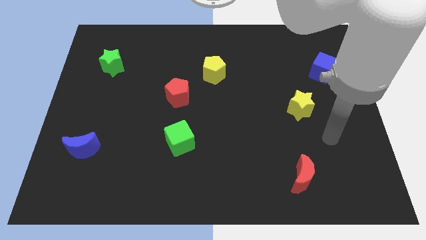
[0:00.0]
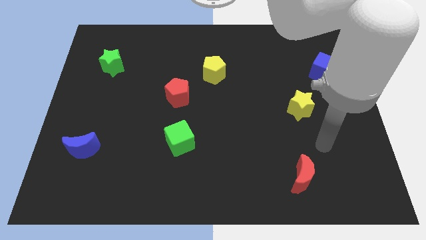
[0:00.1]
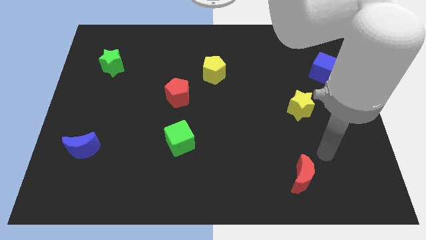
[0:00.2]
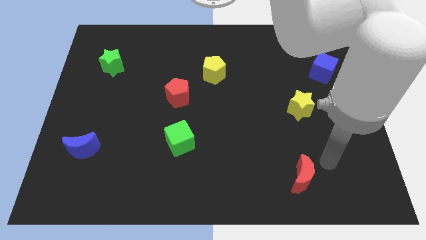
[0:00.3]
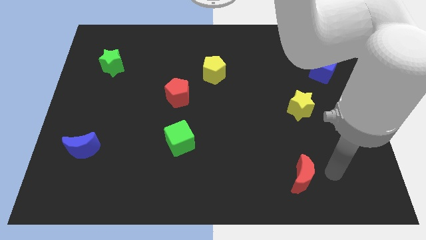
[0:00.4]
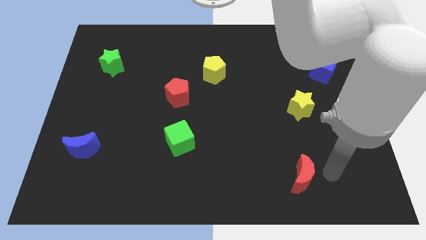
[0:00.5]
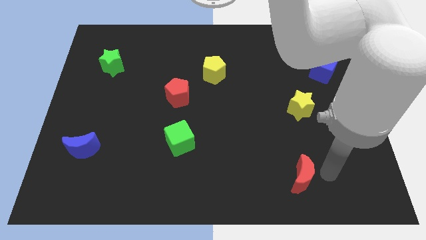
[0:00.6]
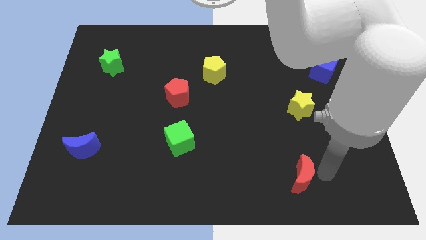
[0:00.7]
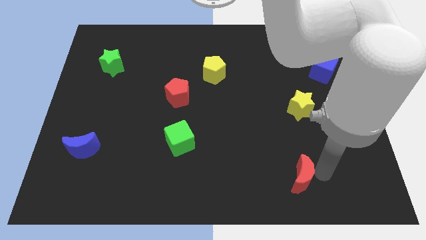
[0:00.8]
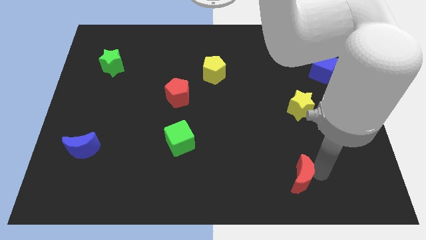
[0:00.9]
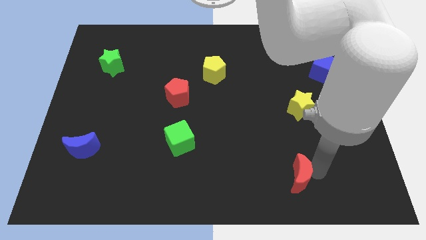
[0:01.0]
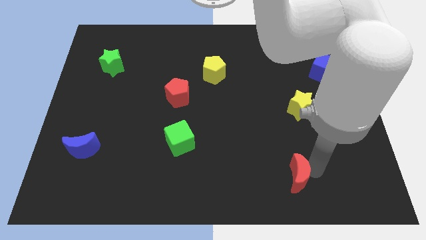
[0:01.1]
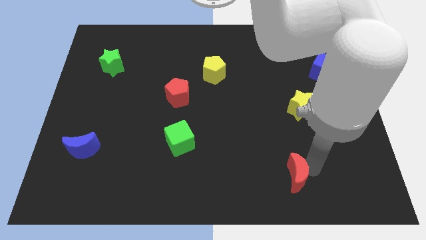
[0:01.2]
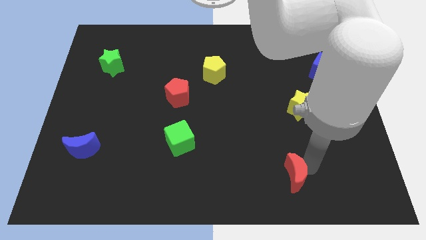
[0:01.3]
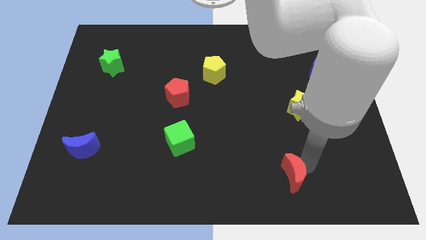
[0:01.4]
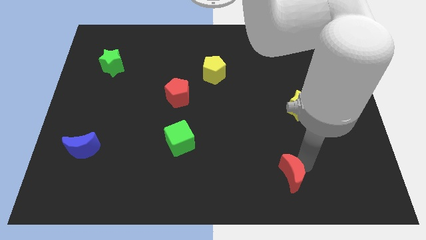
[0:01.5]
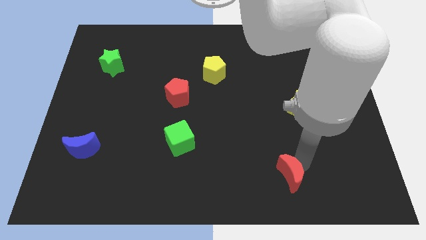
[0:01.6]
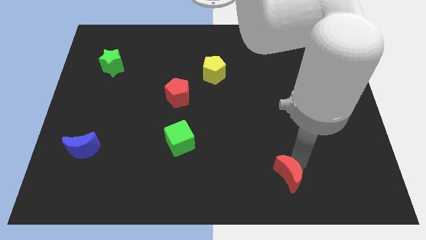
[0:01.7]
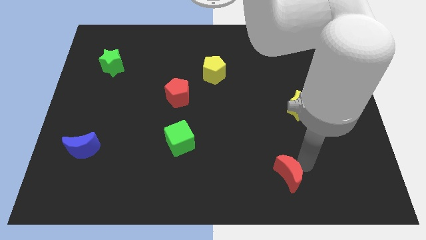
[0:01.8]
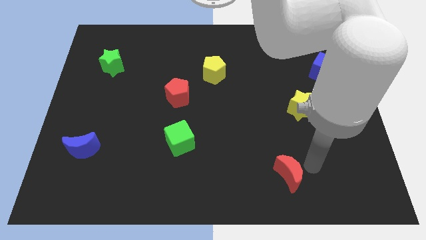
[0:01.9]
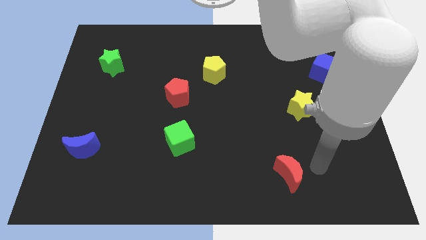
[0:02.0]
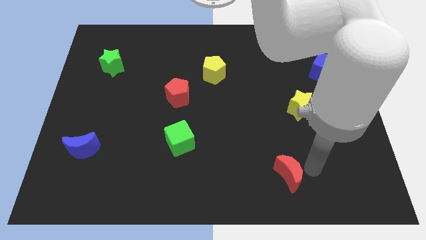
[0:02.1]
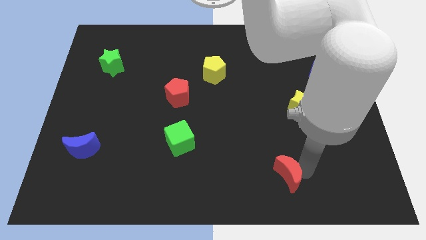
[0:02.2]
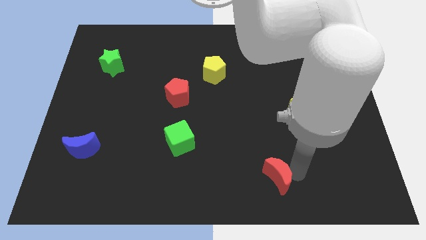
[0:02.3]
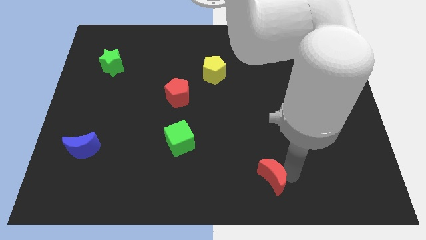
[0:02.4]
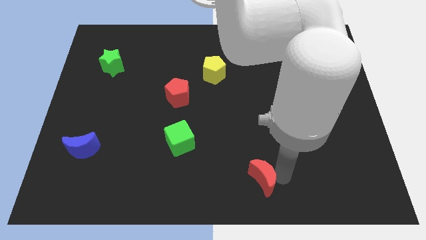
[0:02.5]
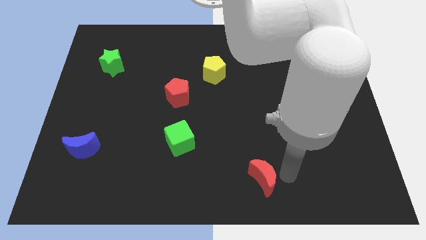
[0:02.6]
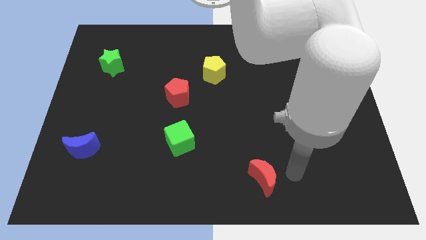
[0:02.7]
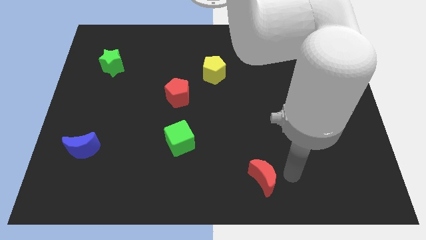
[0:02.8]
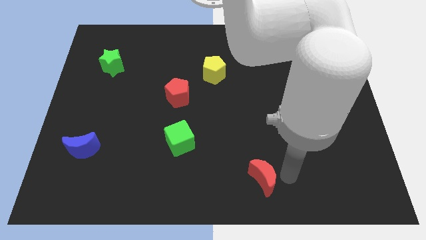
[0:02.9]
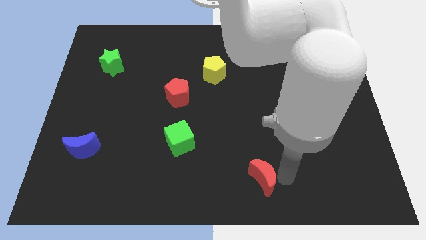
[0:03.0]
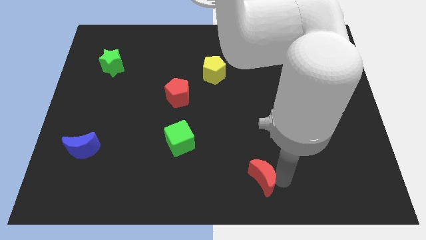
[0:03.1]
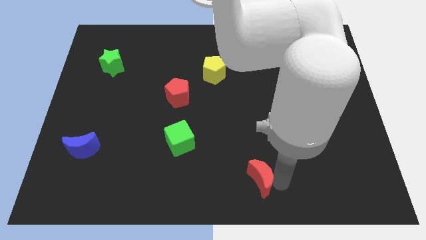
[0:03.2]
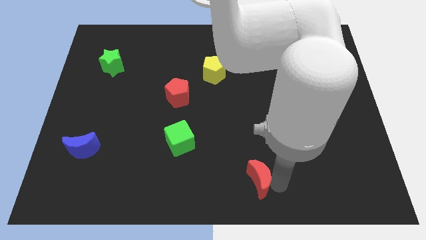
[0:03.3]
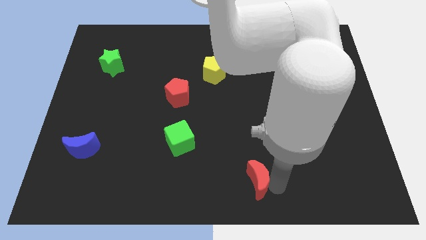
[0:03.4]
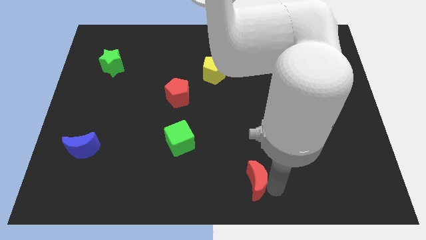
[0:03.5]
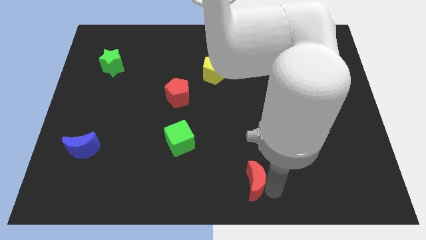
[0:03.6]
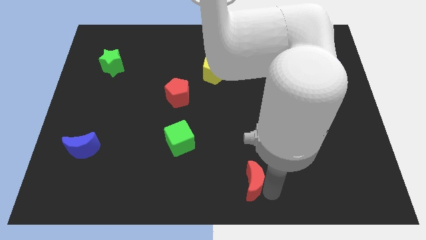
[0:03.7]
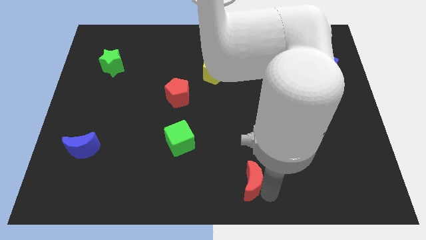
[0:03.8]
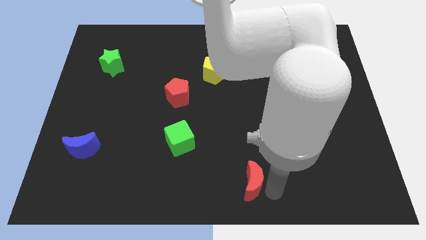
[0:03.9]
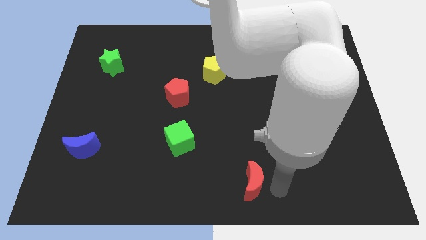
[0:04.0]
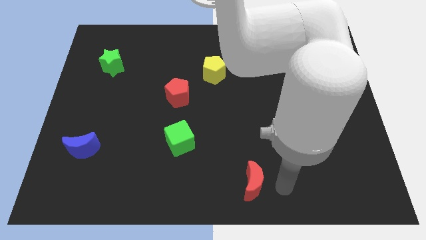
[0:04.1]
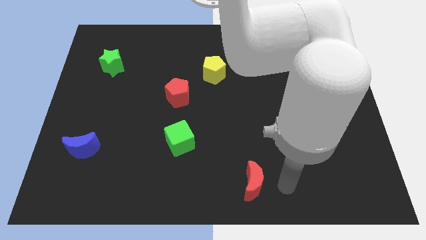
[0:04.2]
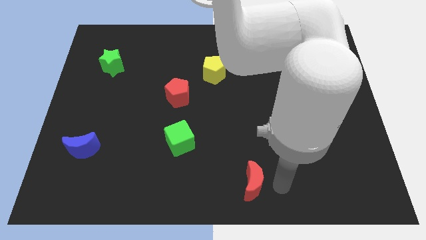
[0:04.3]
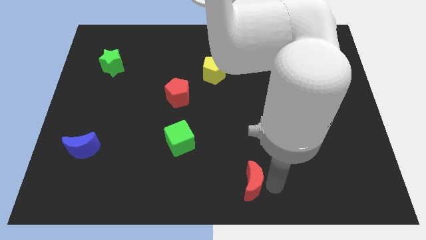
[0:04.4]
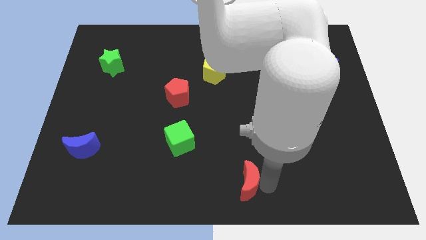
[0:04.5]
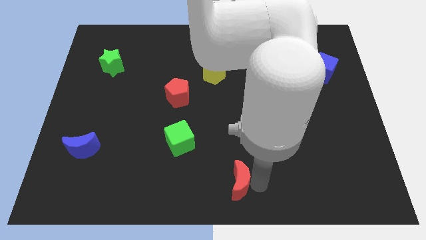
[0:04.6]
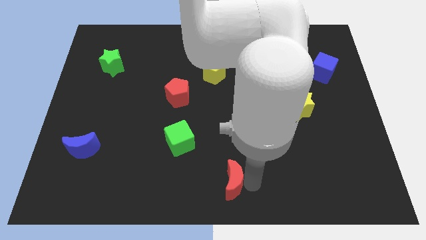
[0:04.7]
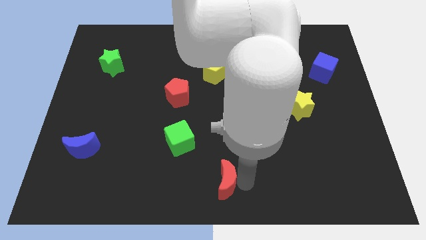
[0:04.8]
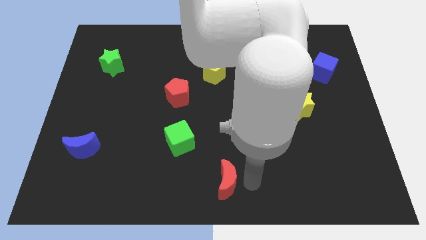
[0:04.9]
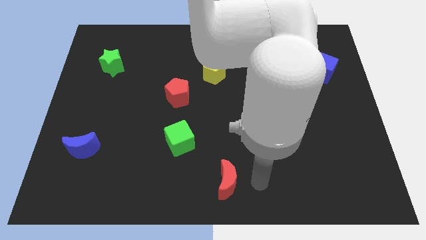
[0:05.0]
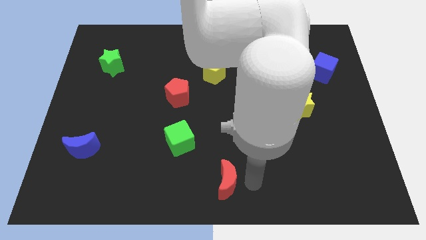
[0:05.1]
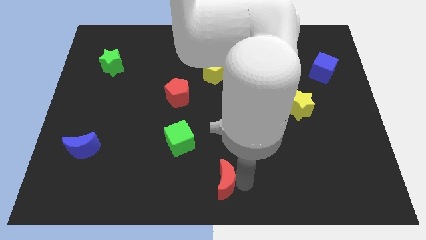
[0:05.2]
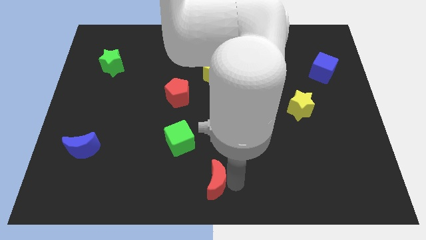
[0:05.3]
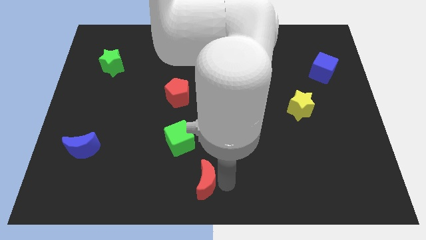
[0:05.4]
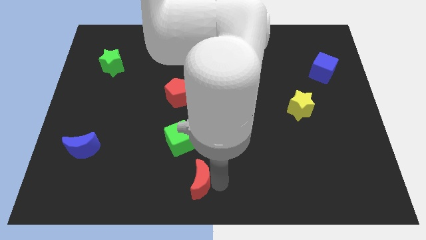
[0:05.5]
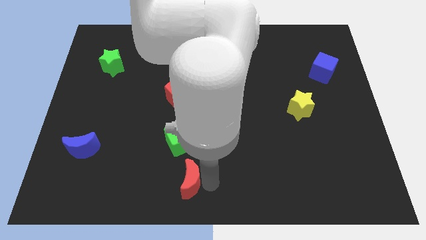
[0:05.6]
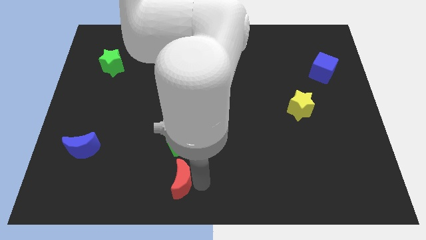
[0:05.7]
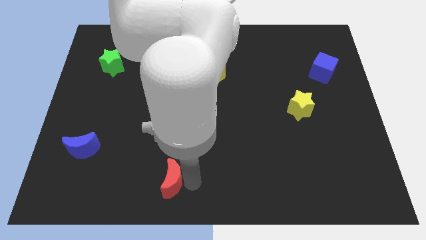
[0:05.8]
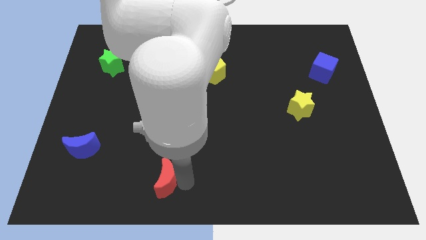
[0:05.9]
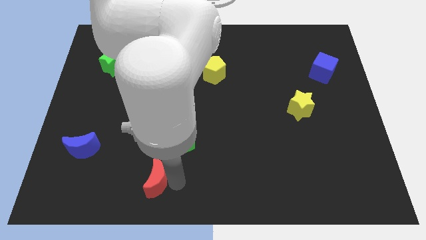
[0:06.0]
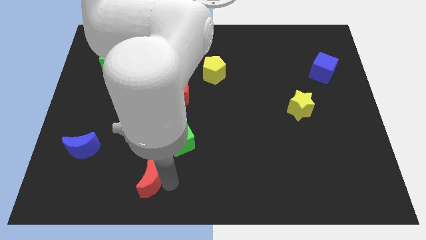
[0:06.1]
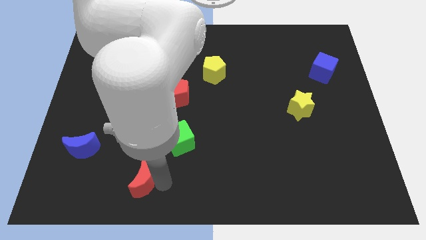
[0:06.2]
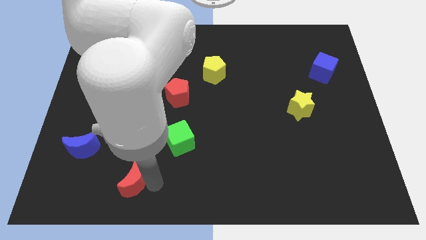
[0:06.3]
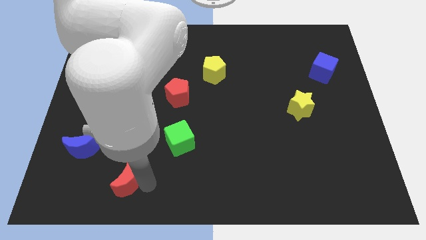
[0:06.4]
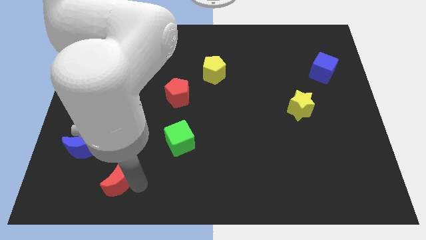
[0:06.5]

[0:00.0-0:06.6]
move the red moon to the bottom right side of the blue moon
